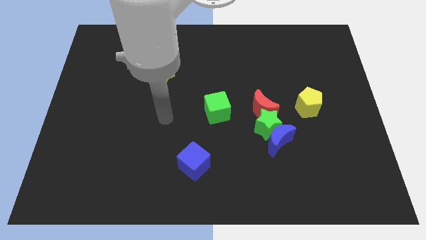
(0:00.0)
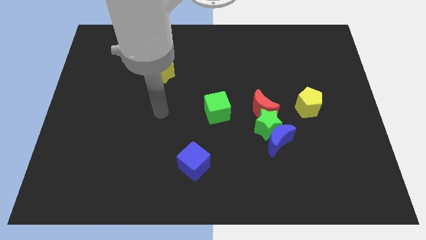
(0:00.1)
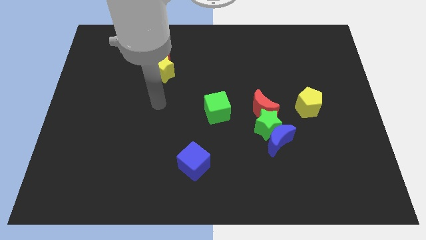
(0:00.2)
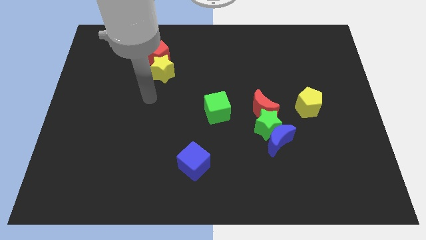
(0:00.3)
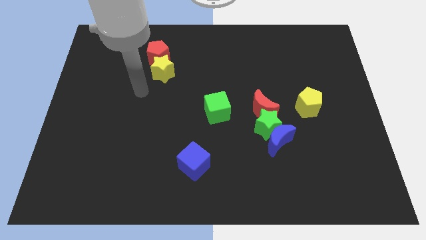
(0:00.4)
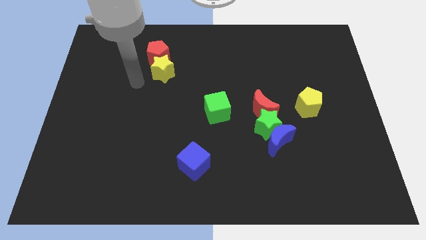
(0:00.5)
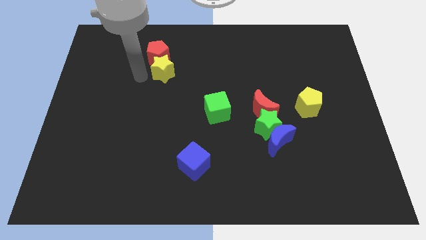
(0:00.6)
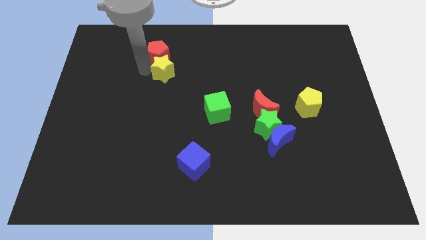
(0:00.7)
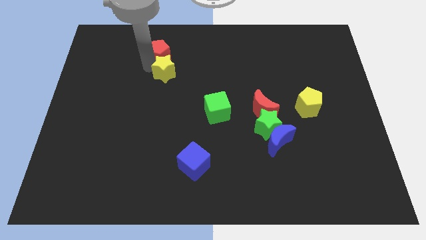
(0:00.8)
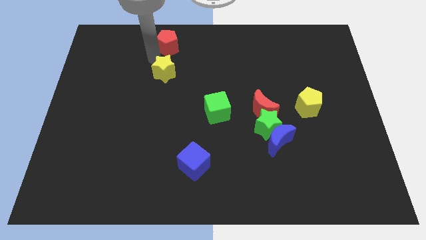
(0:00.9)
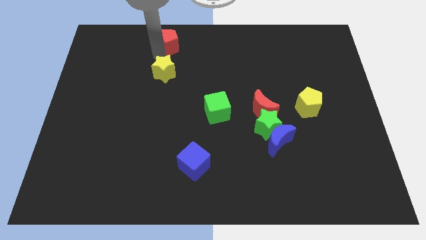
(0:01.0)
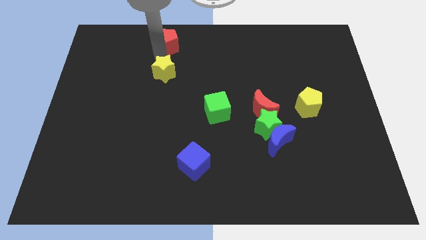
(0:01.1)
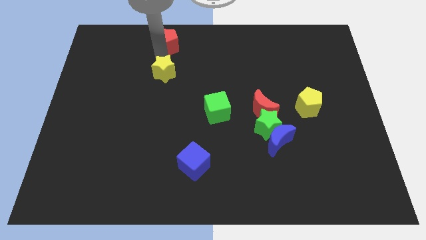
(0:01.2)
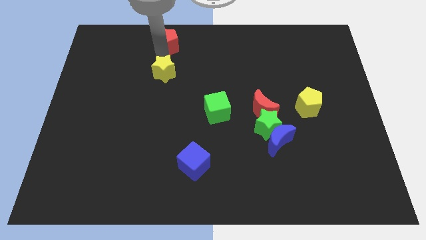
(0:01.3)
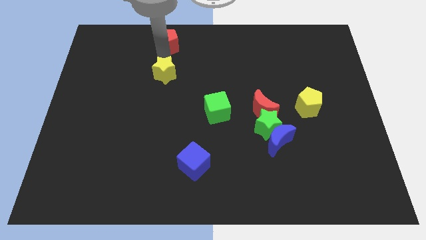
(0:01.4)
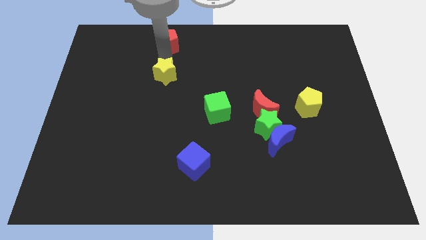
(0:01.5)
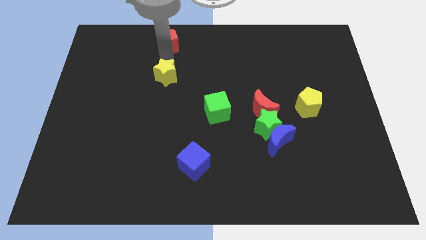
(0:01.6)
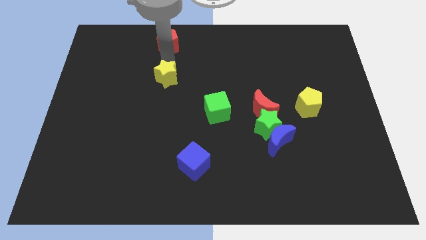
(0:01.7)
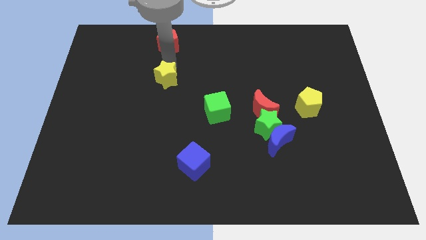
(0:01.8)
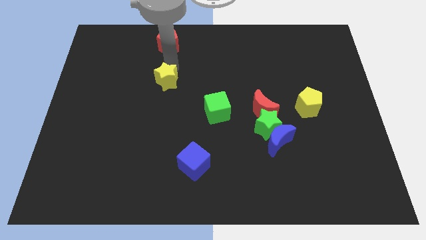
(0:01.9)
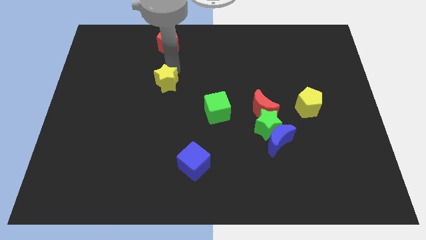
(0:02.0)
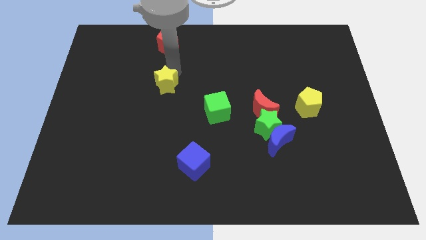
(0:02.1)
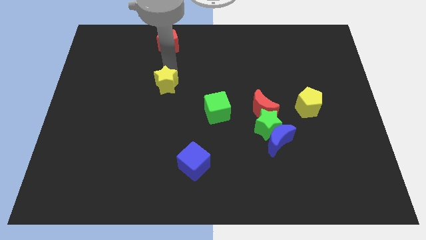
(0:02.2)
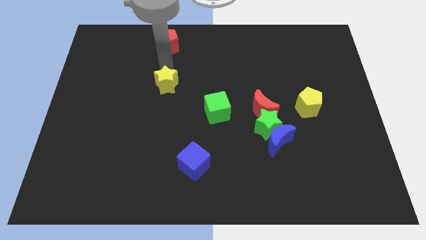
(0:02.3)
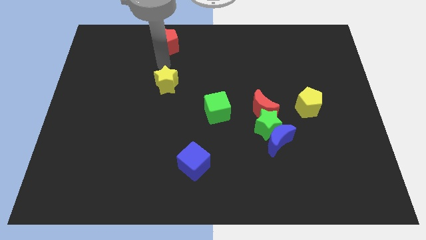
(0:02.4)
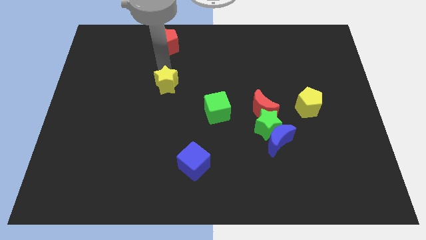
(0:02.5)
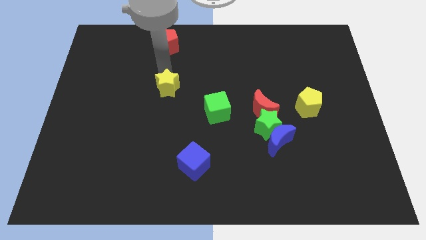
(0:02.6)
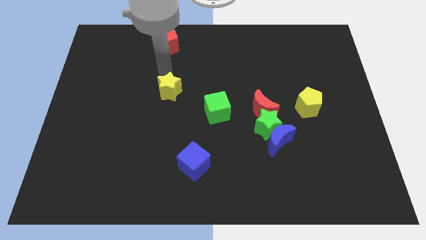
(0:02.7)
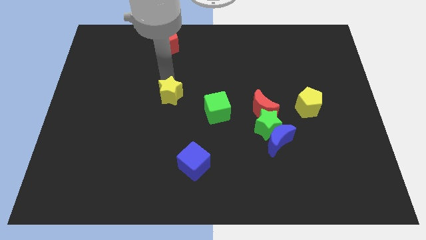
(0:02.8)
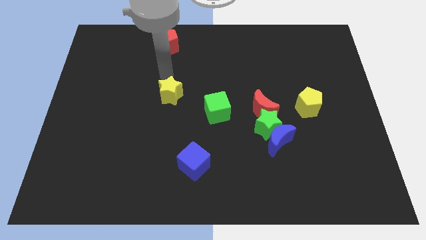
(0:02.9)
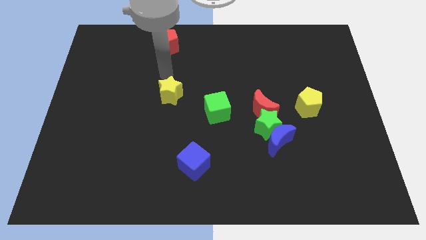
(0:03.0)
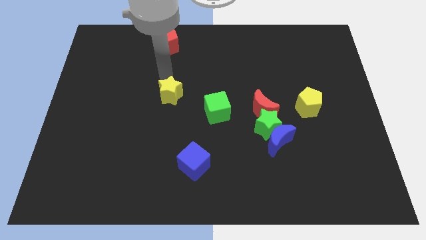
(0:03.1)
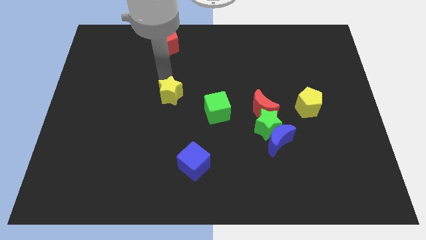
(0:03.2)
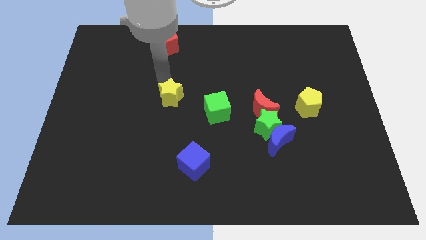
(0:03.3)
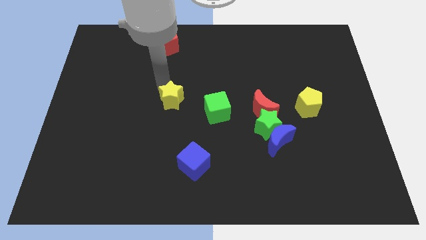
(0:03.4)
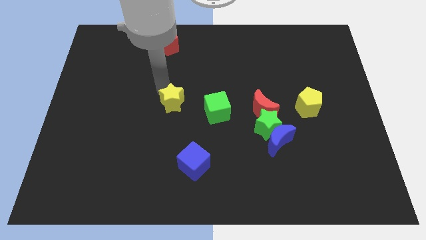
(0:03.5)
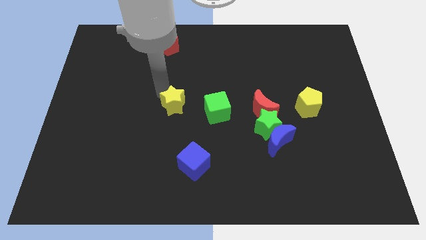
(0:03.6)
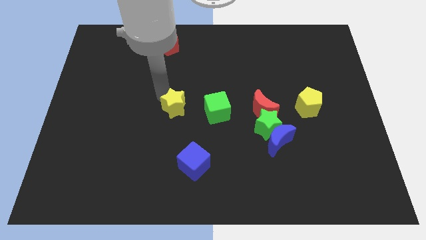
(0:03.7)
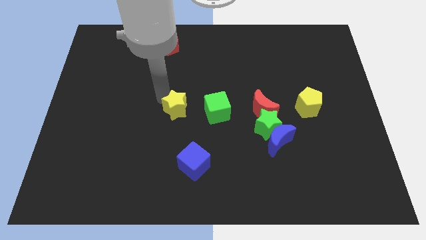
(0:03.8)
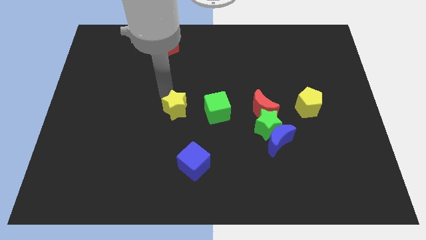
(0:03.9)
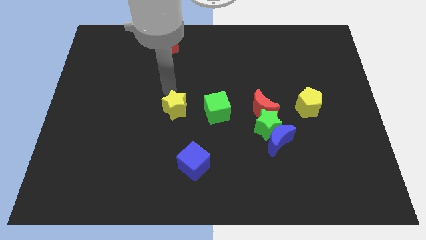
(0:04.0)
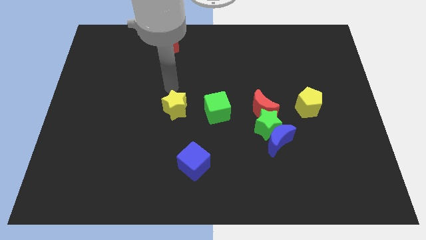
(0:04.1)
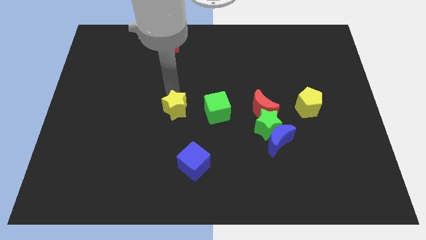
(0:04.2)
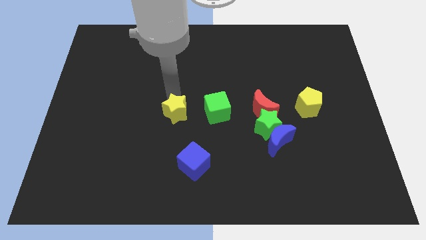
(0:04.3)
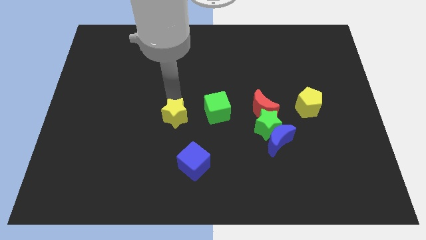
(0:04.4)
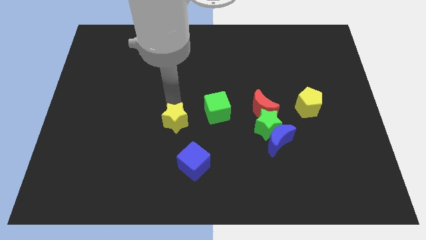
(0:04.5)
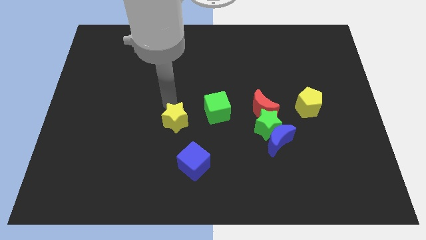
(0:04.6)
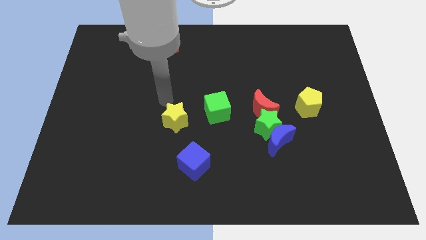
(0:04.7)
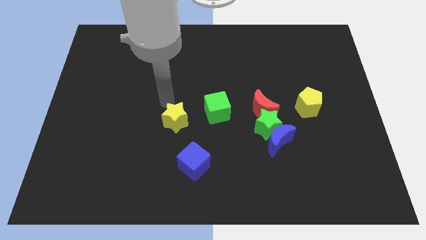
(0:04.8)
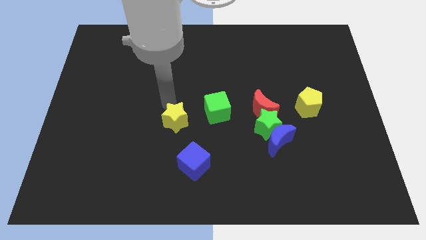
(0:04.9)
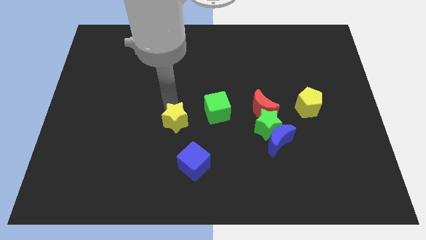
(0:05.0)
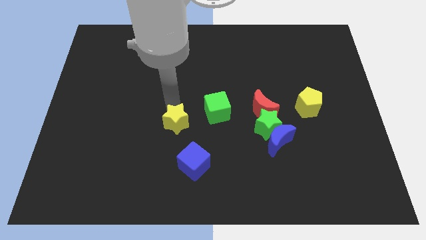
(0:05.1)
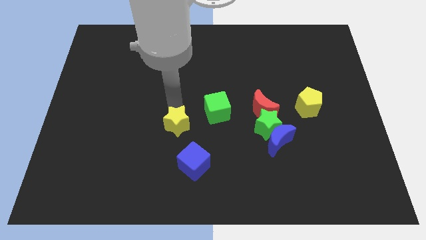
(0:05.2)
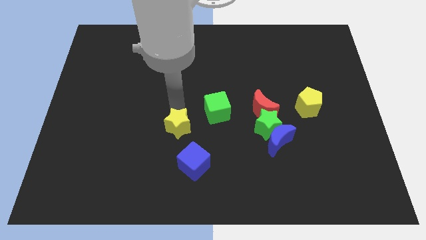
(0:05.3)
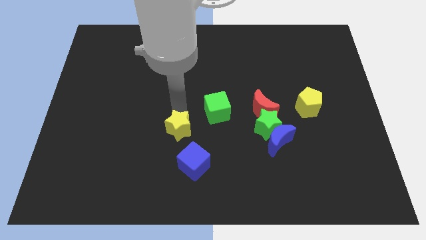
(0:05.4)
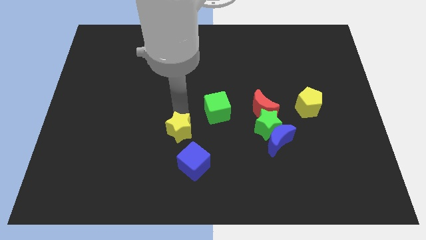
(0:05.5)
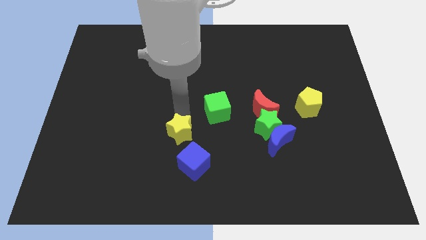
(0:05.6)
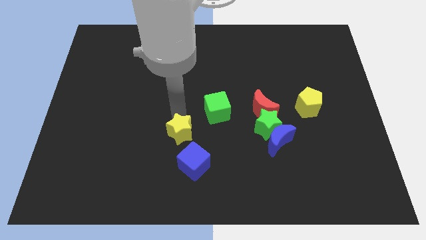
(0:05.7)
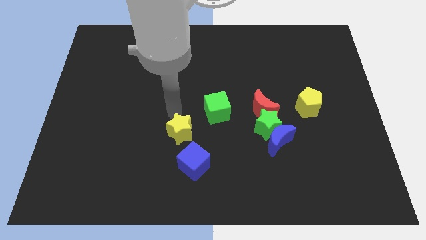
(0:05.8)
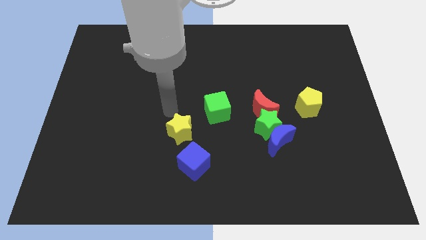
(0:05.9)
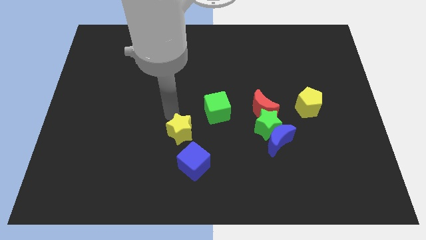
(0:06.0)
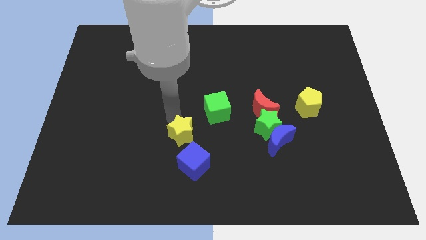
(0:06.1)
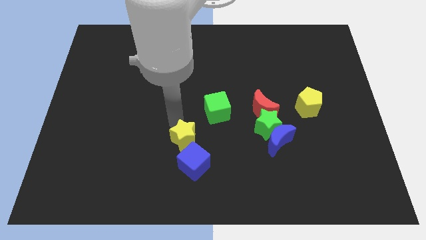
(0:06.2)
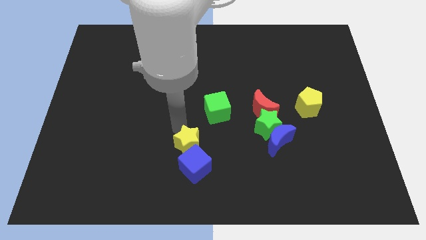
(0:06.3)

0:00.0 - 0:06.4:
slide the yellow star to the blue cube

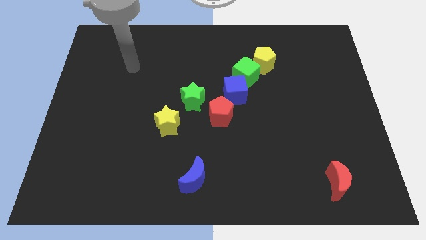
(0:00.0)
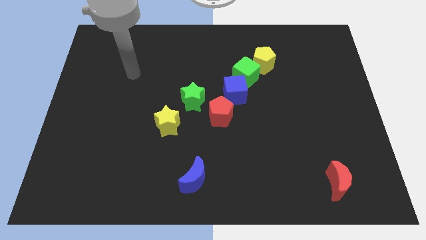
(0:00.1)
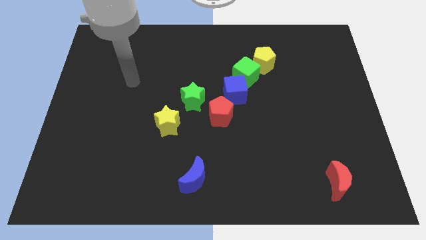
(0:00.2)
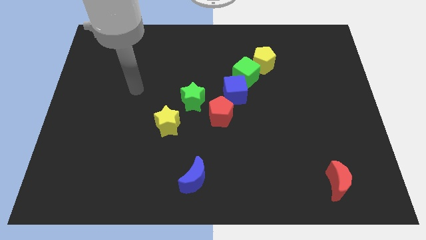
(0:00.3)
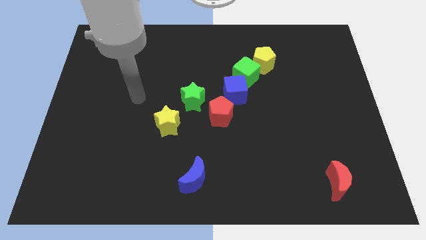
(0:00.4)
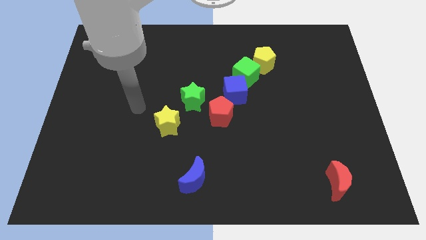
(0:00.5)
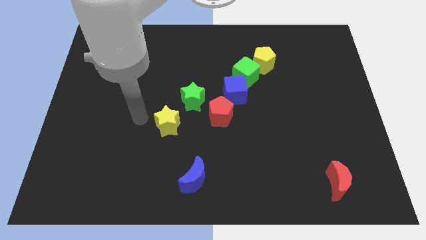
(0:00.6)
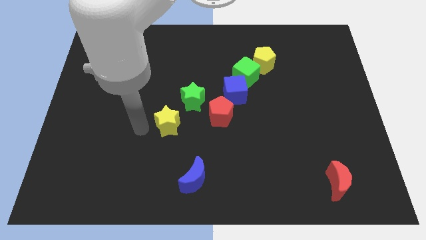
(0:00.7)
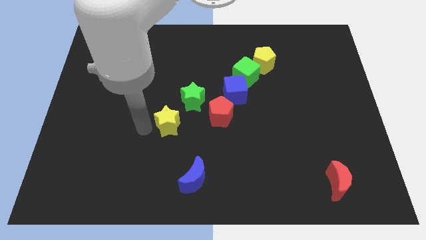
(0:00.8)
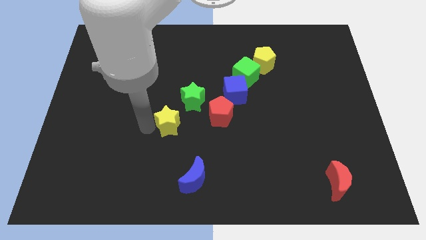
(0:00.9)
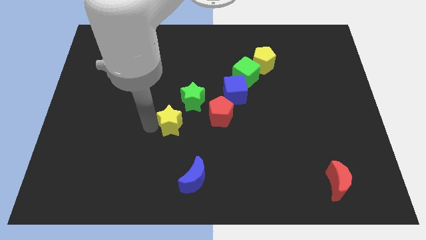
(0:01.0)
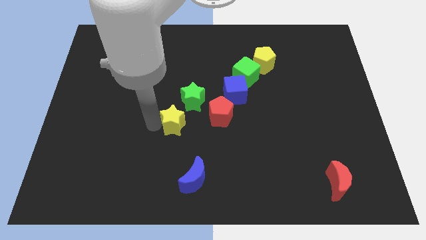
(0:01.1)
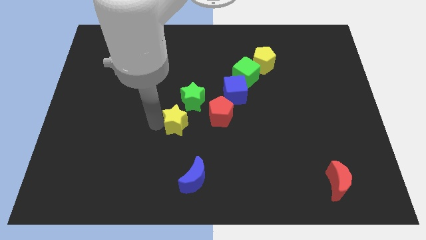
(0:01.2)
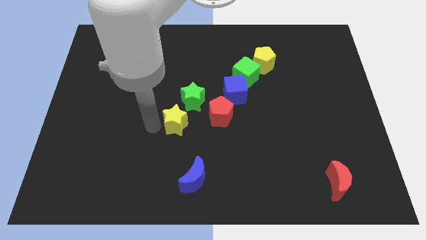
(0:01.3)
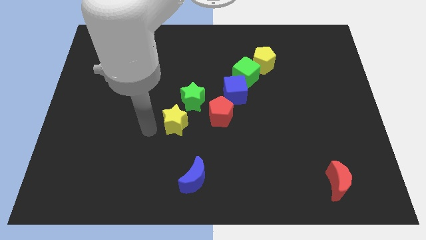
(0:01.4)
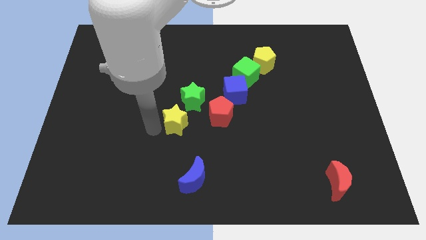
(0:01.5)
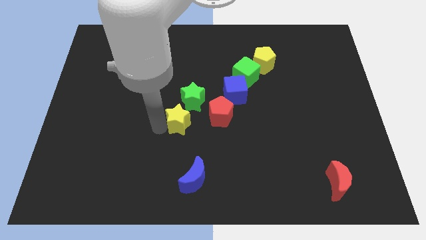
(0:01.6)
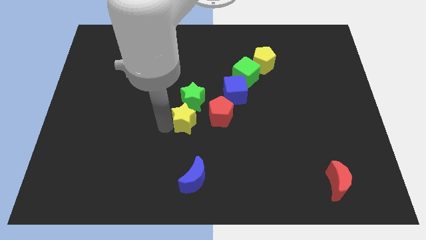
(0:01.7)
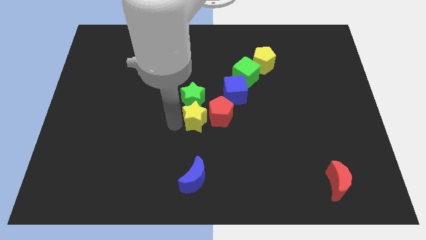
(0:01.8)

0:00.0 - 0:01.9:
put the yellow star to the red pentagon
